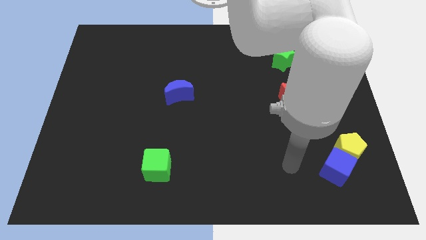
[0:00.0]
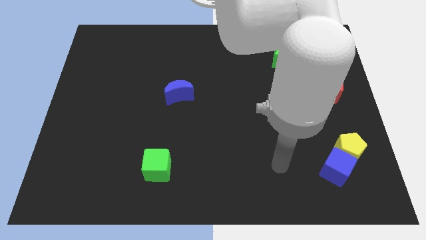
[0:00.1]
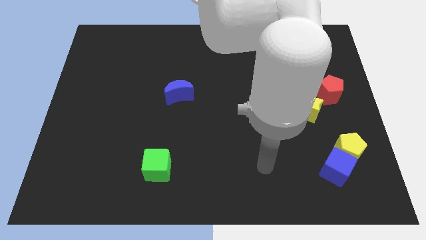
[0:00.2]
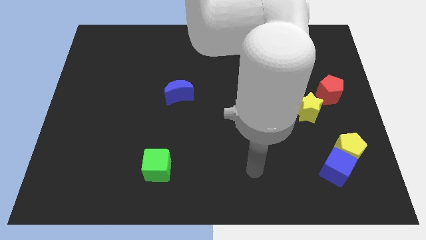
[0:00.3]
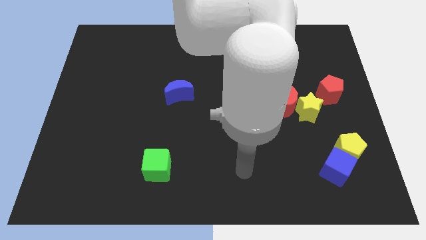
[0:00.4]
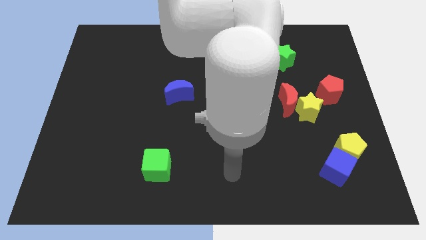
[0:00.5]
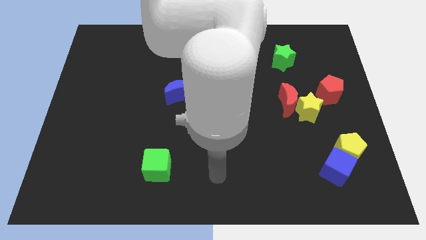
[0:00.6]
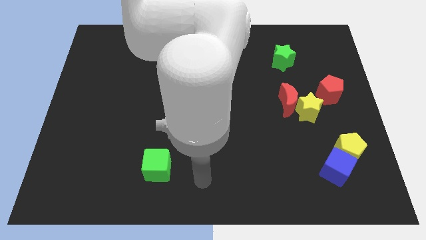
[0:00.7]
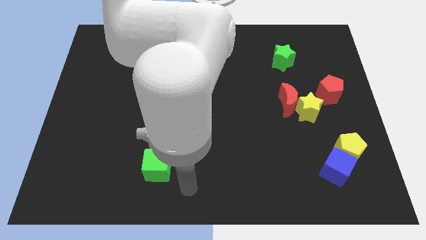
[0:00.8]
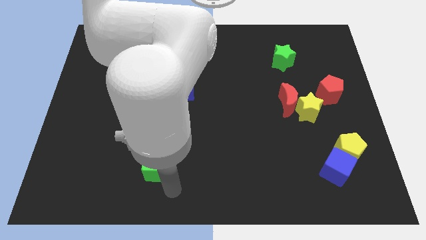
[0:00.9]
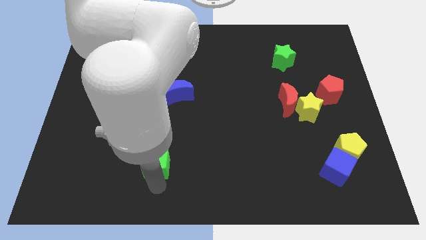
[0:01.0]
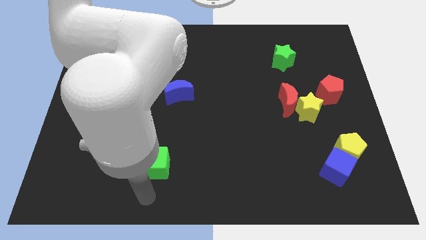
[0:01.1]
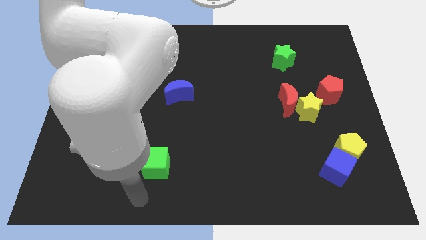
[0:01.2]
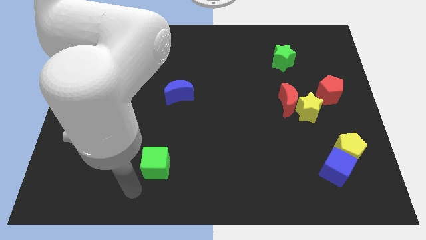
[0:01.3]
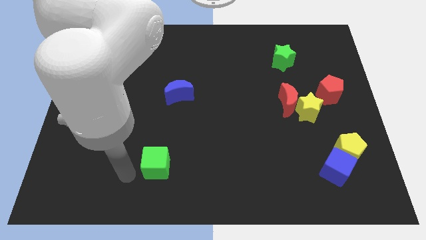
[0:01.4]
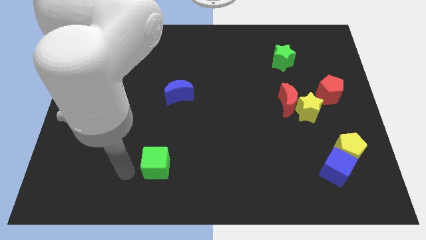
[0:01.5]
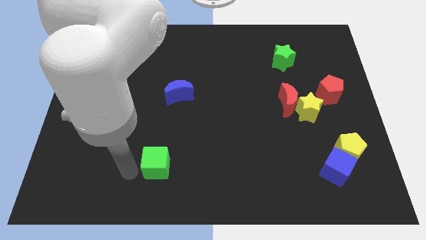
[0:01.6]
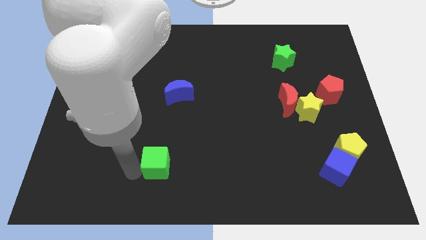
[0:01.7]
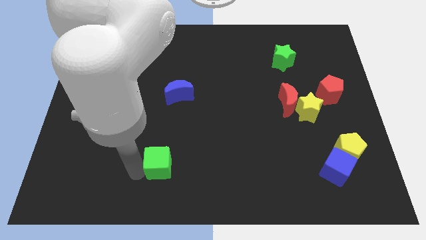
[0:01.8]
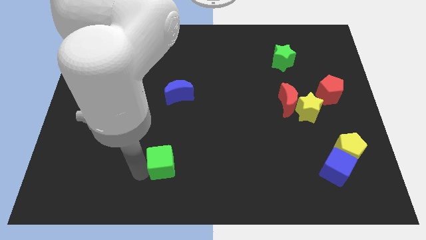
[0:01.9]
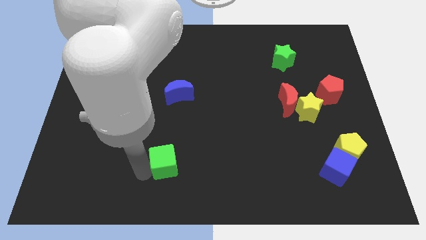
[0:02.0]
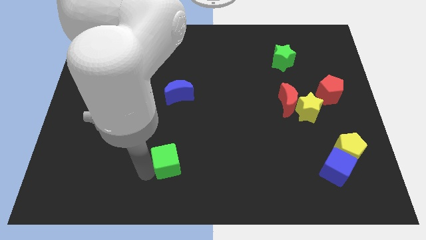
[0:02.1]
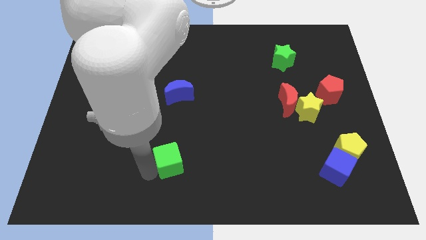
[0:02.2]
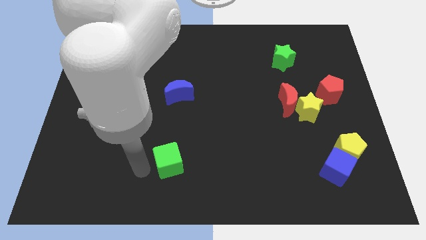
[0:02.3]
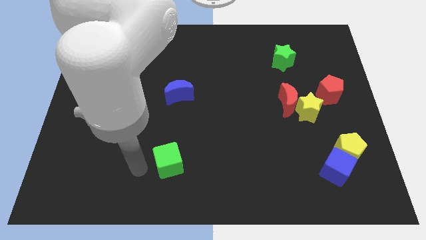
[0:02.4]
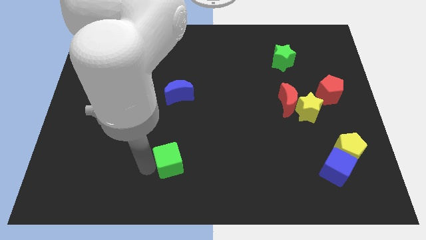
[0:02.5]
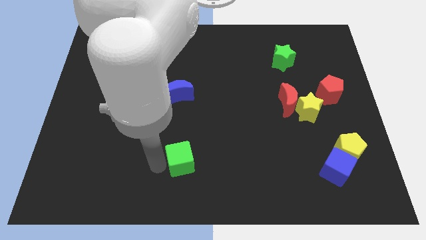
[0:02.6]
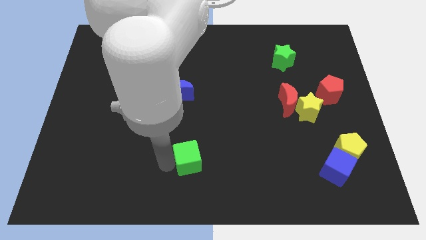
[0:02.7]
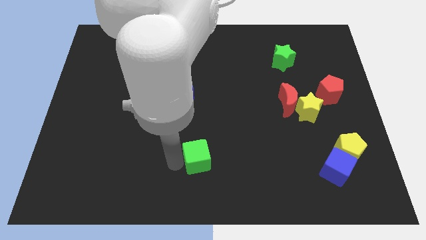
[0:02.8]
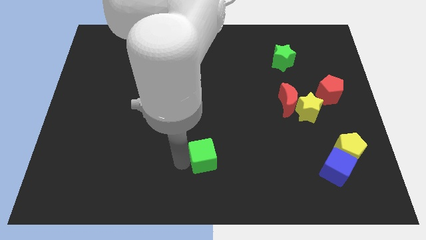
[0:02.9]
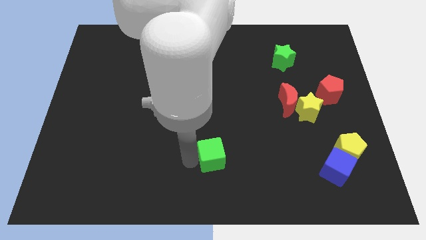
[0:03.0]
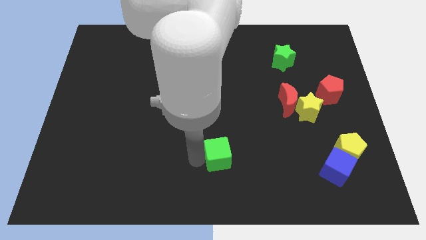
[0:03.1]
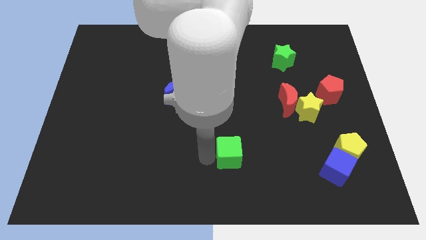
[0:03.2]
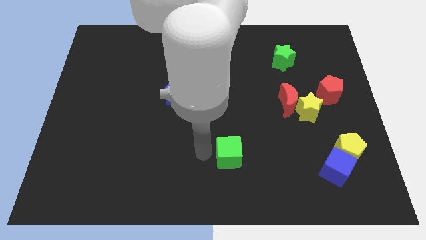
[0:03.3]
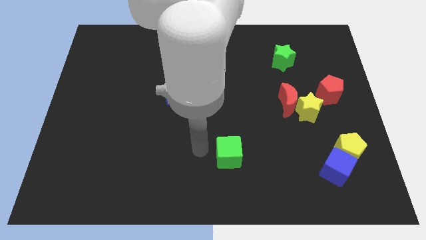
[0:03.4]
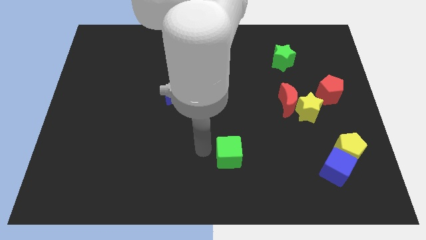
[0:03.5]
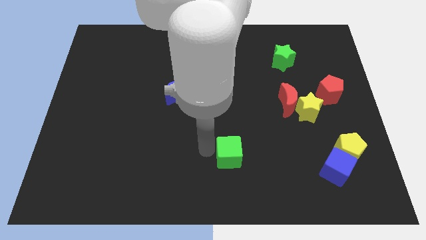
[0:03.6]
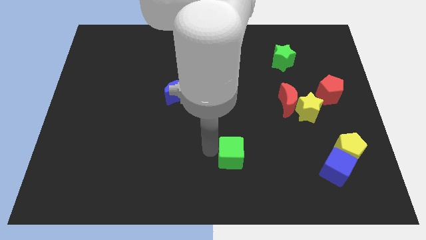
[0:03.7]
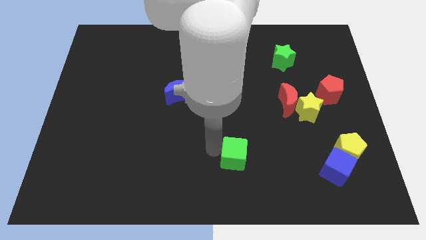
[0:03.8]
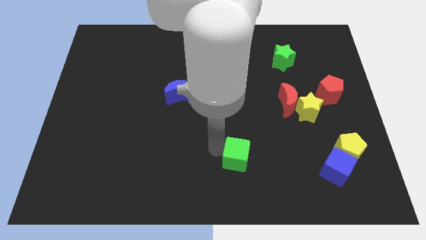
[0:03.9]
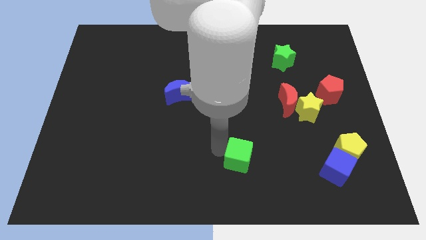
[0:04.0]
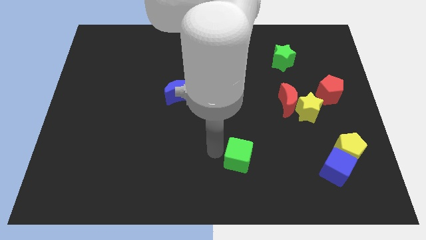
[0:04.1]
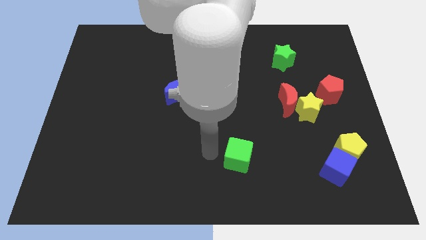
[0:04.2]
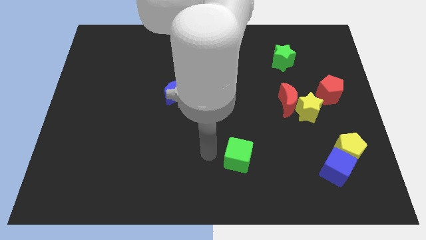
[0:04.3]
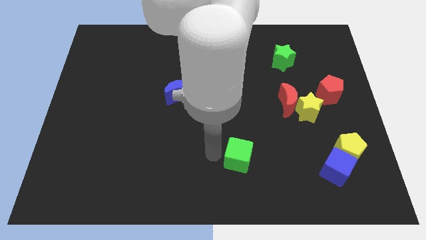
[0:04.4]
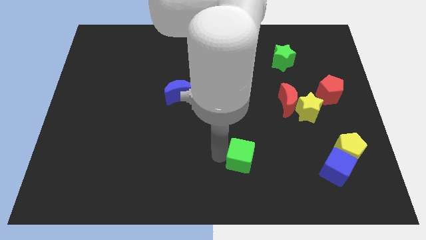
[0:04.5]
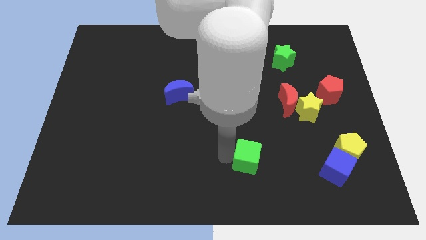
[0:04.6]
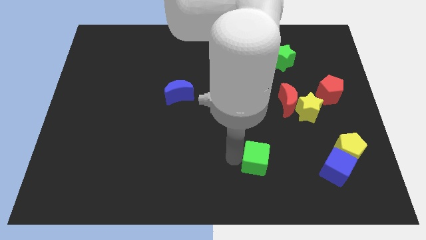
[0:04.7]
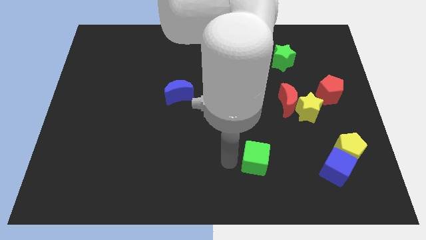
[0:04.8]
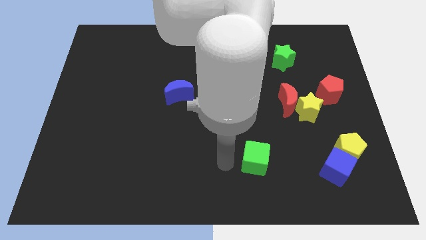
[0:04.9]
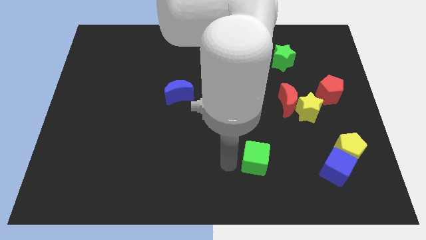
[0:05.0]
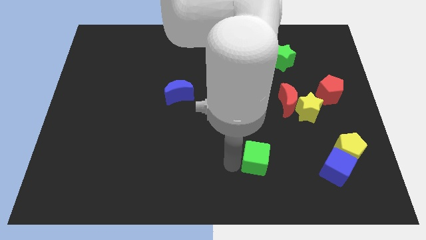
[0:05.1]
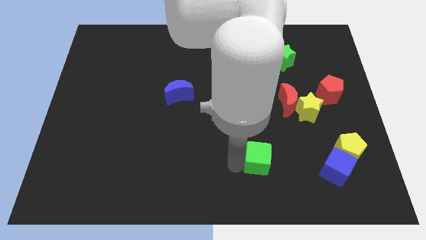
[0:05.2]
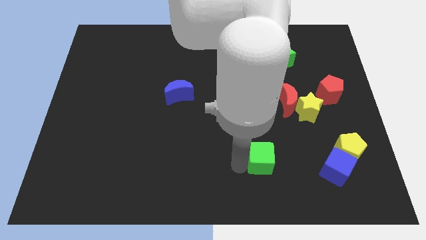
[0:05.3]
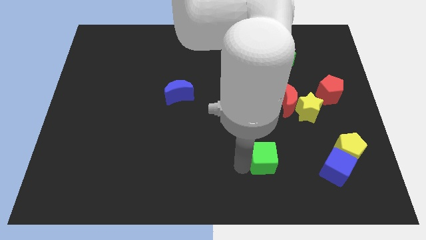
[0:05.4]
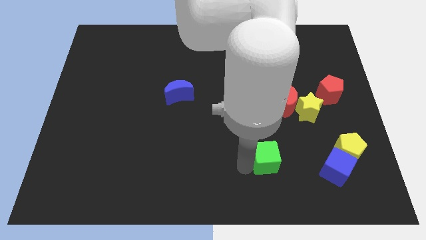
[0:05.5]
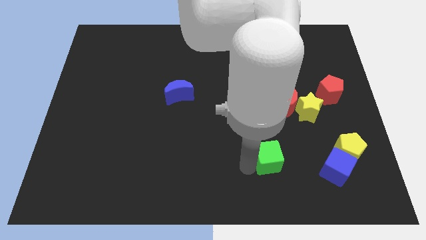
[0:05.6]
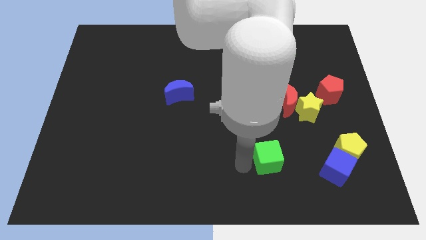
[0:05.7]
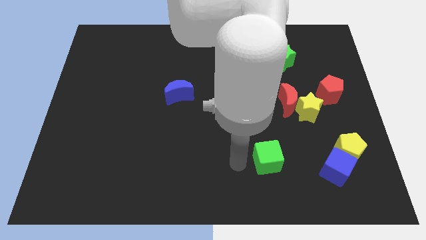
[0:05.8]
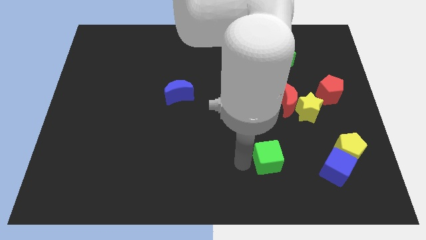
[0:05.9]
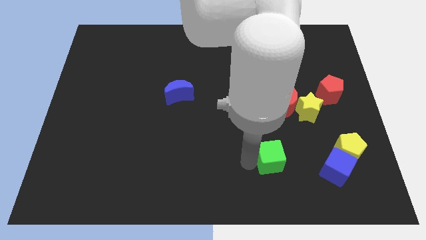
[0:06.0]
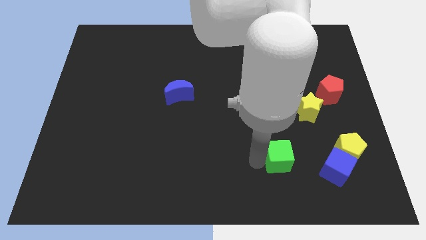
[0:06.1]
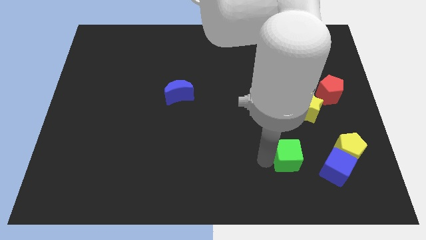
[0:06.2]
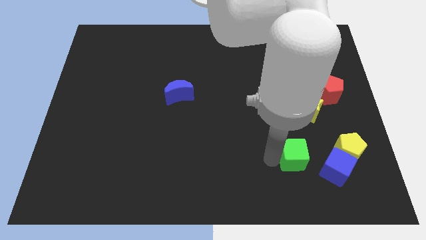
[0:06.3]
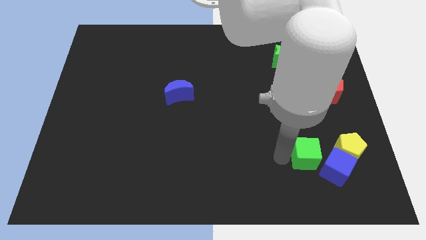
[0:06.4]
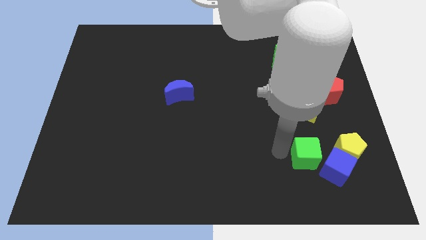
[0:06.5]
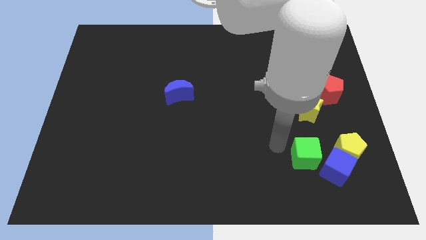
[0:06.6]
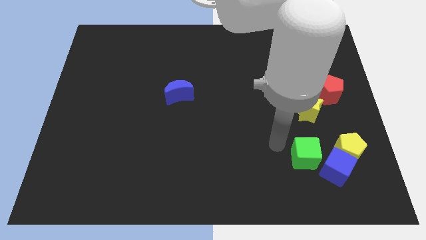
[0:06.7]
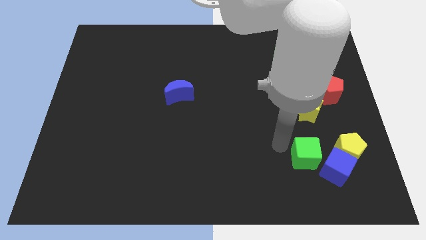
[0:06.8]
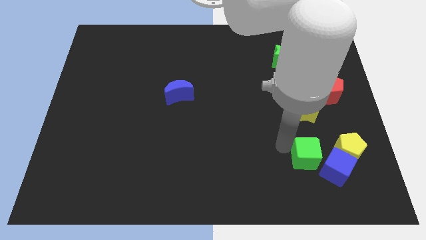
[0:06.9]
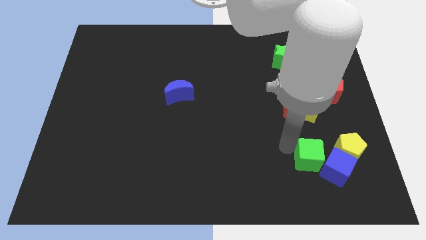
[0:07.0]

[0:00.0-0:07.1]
put the green cube towards the blue cube

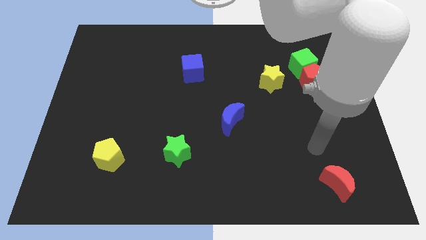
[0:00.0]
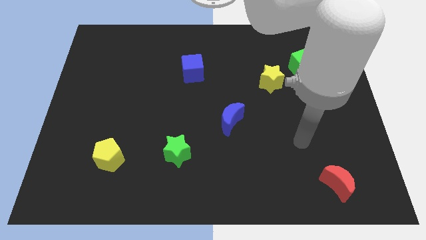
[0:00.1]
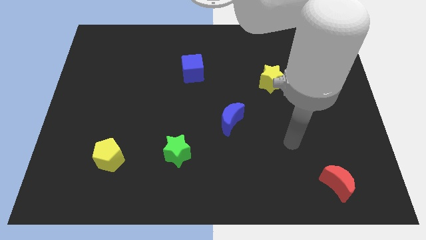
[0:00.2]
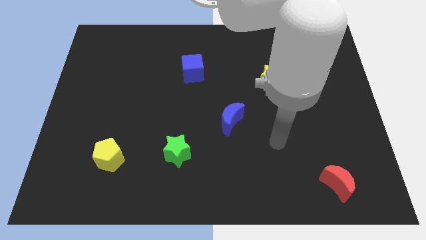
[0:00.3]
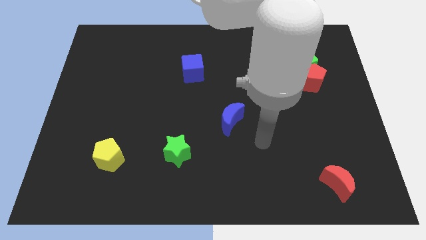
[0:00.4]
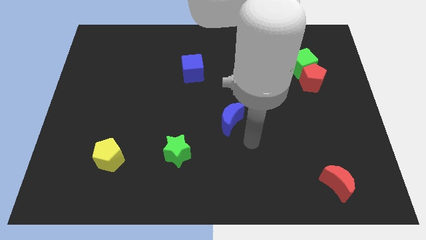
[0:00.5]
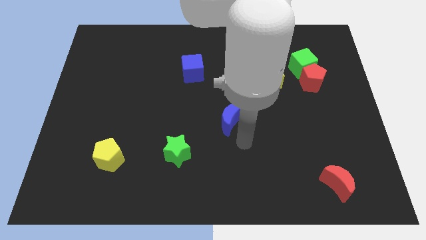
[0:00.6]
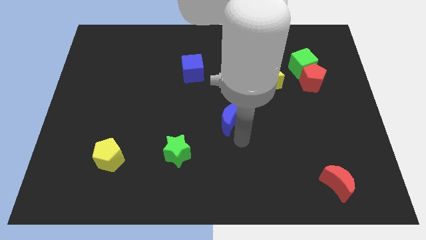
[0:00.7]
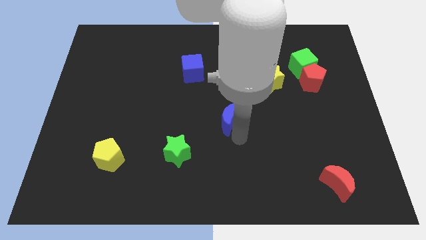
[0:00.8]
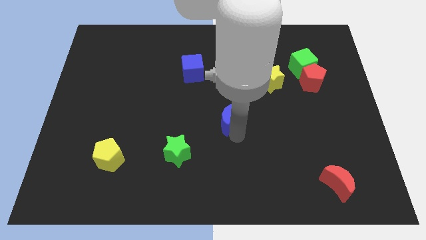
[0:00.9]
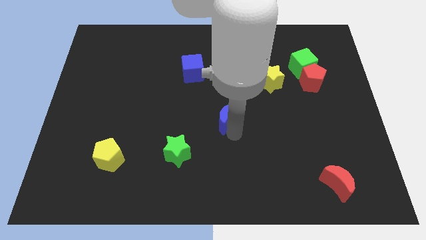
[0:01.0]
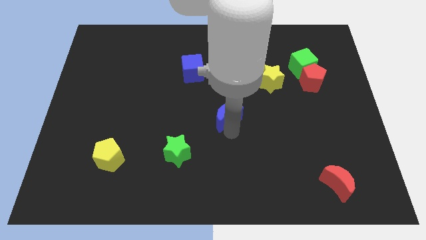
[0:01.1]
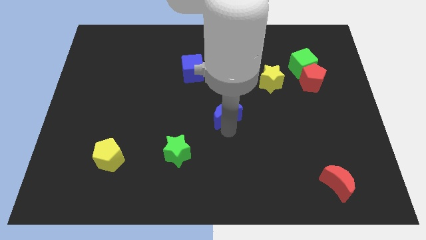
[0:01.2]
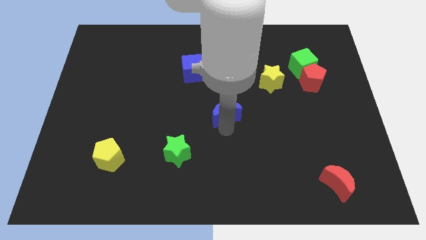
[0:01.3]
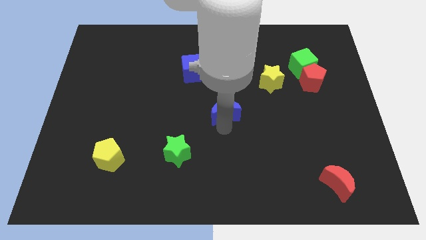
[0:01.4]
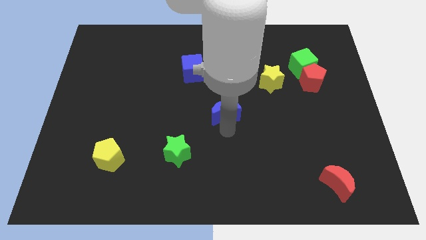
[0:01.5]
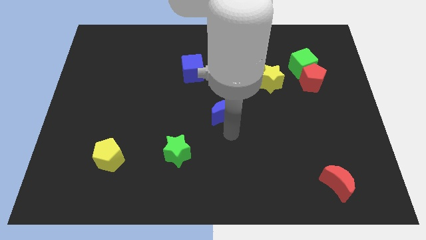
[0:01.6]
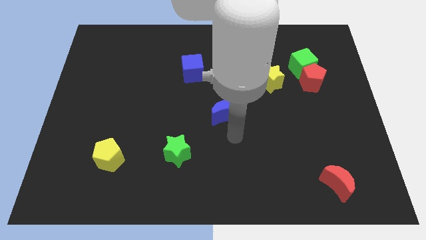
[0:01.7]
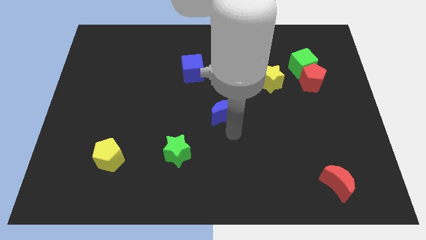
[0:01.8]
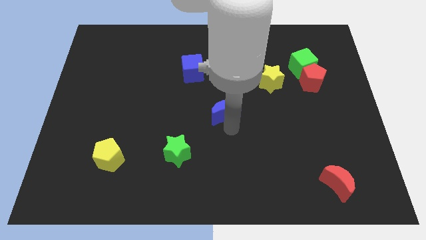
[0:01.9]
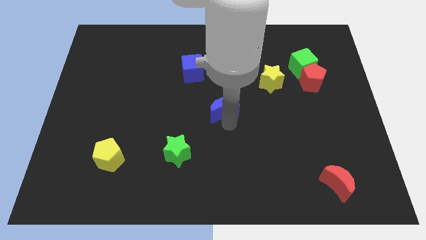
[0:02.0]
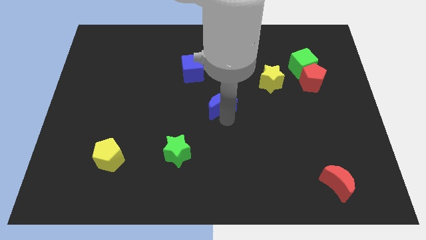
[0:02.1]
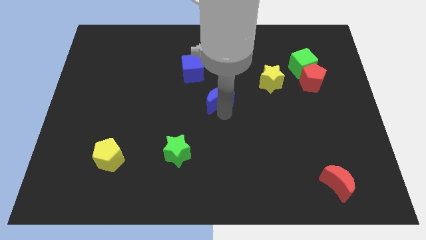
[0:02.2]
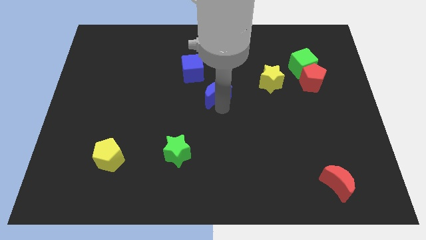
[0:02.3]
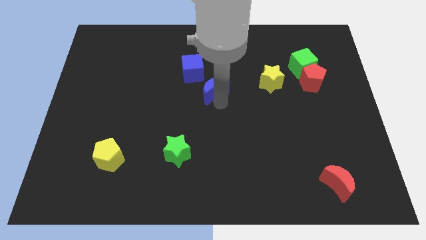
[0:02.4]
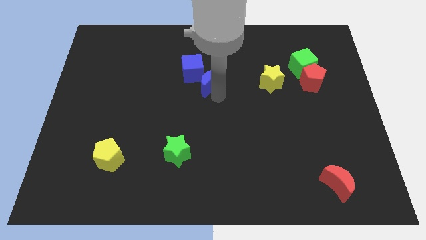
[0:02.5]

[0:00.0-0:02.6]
put the blue moon to the blue cube
